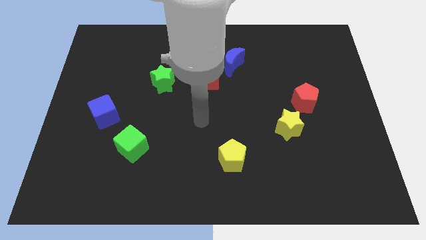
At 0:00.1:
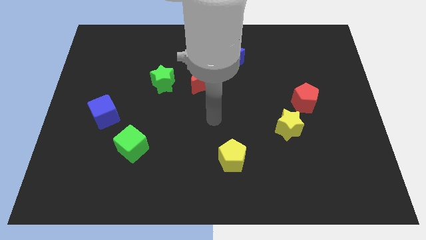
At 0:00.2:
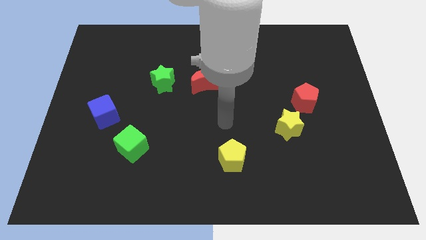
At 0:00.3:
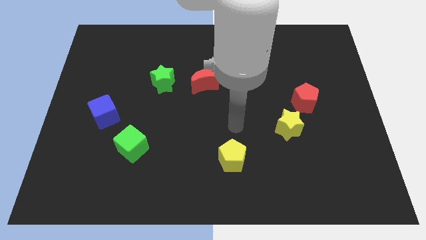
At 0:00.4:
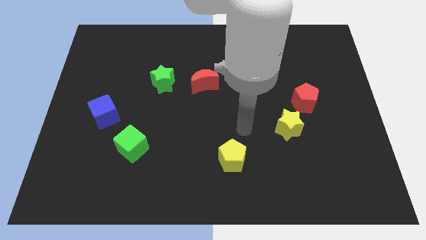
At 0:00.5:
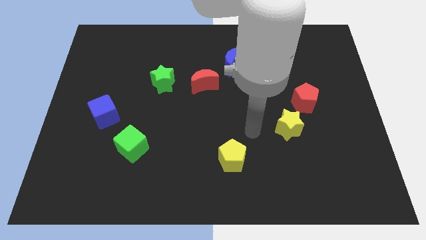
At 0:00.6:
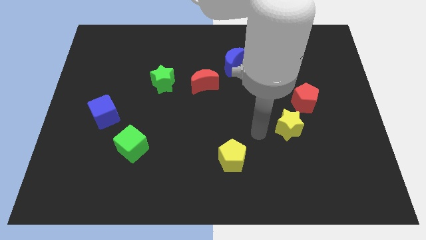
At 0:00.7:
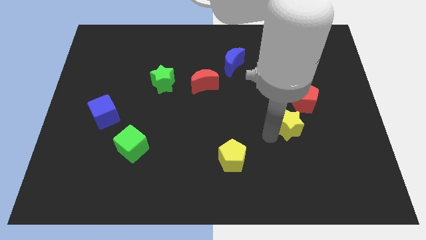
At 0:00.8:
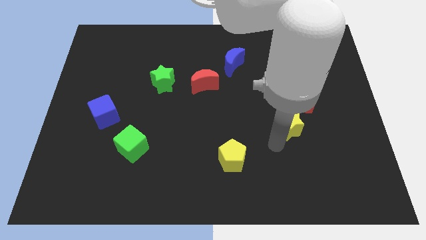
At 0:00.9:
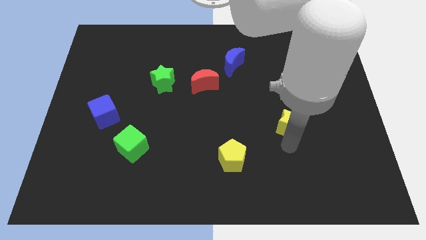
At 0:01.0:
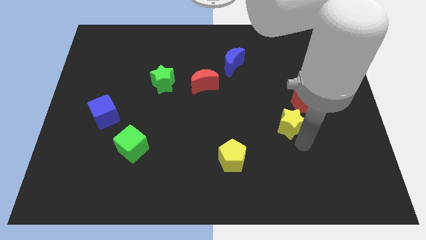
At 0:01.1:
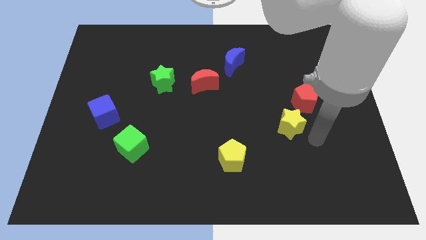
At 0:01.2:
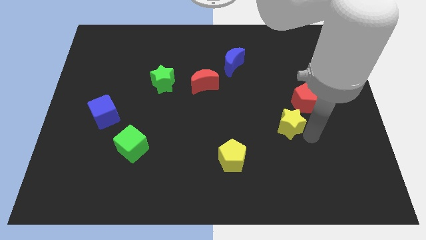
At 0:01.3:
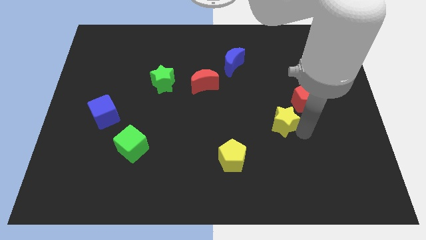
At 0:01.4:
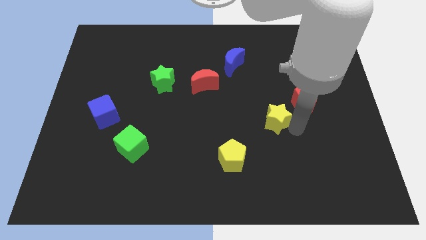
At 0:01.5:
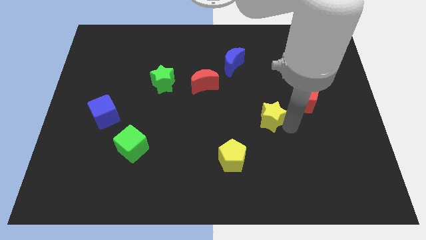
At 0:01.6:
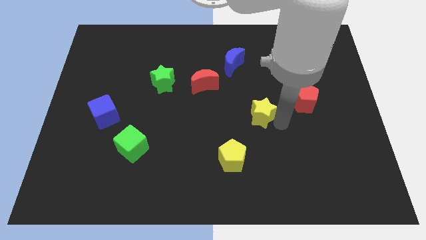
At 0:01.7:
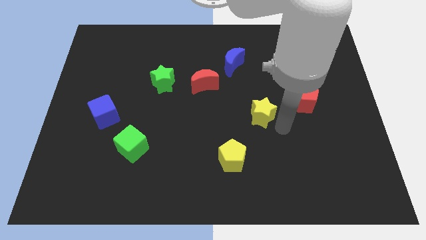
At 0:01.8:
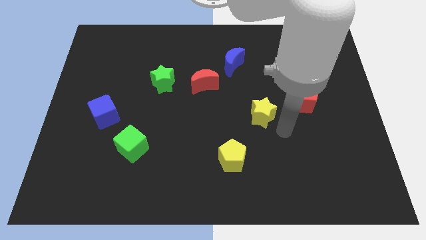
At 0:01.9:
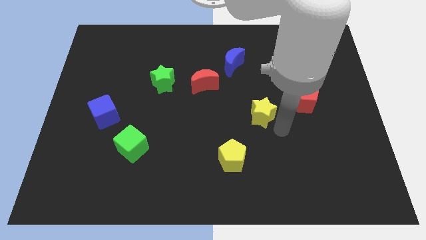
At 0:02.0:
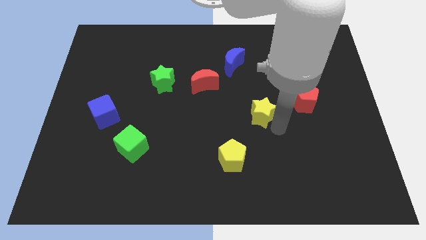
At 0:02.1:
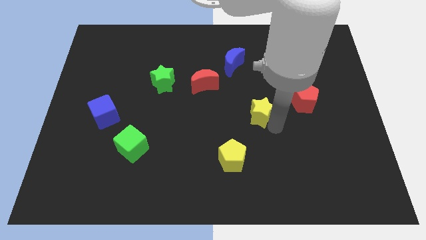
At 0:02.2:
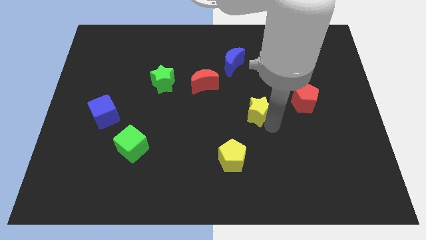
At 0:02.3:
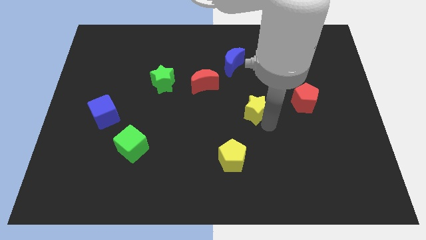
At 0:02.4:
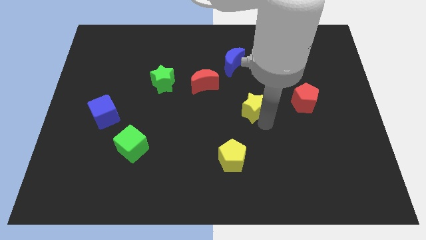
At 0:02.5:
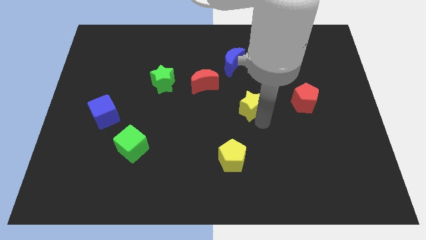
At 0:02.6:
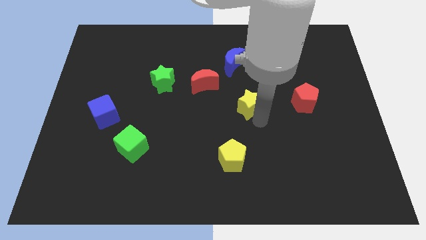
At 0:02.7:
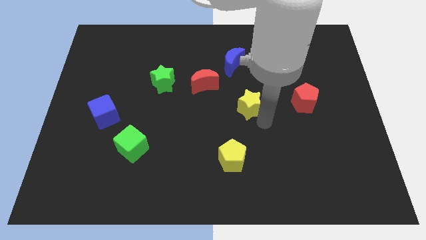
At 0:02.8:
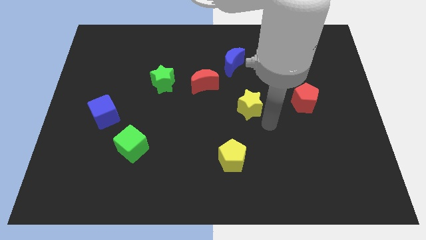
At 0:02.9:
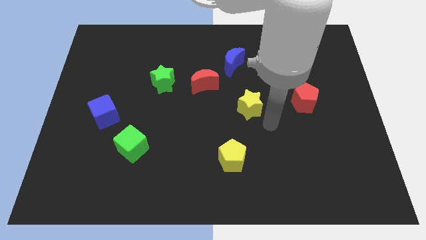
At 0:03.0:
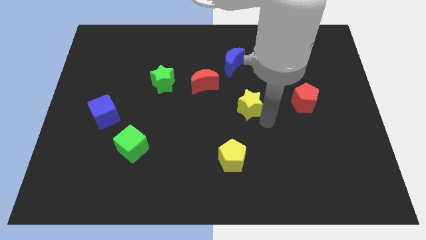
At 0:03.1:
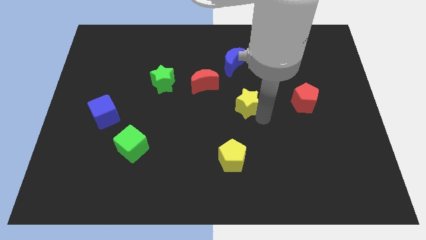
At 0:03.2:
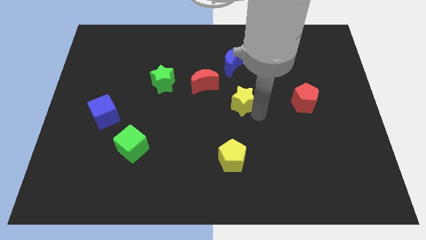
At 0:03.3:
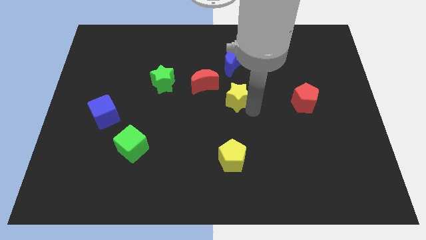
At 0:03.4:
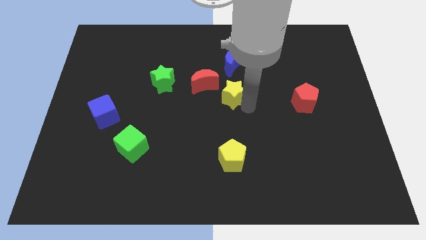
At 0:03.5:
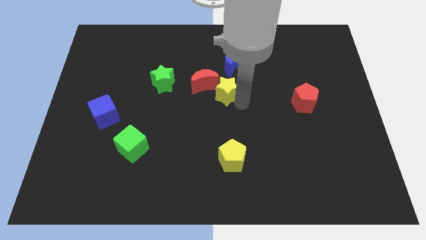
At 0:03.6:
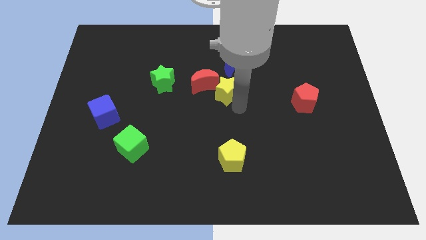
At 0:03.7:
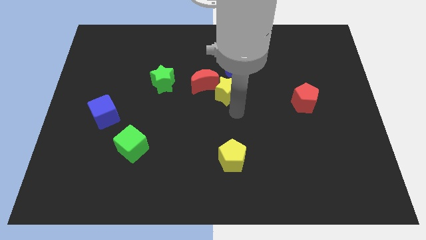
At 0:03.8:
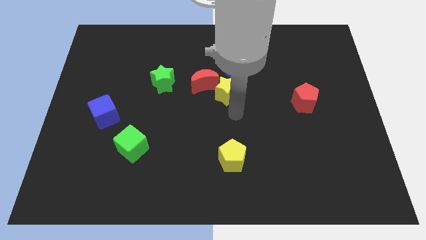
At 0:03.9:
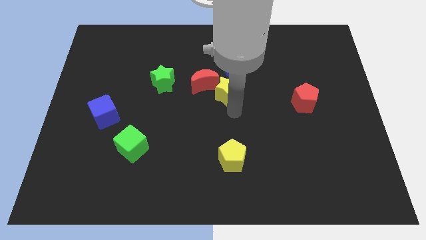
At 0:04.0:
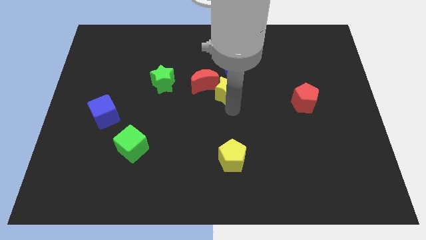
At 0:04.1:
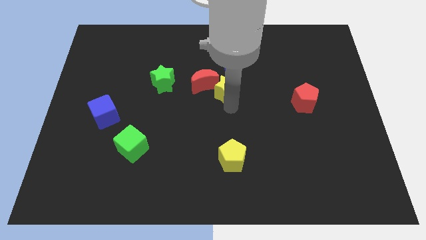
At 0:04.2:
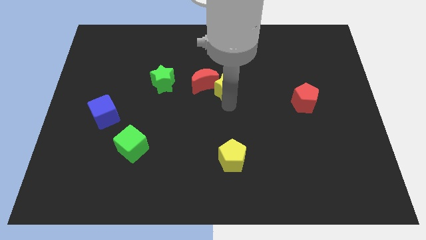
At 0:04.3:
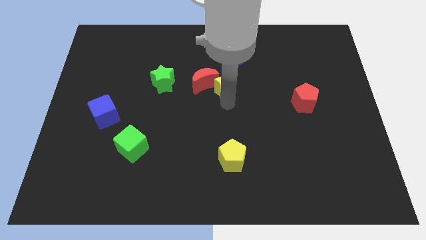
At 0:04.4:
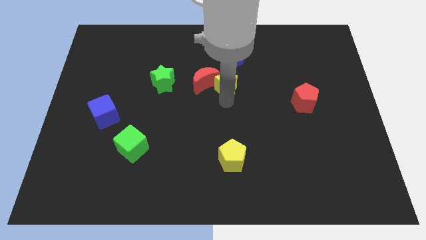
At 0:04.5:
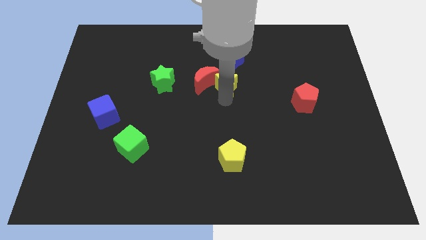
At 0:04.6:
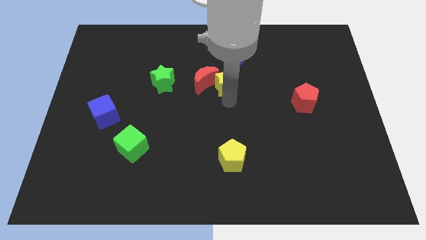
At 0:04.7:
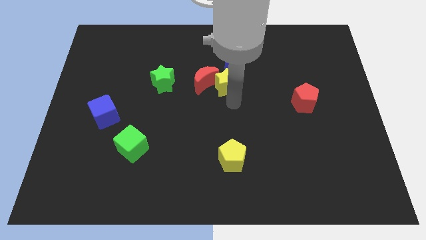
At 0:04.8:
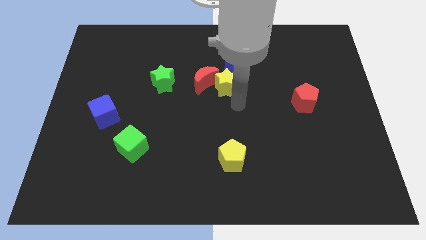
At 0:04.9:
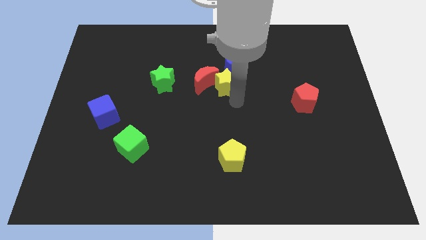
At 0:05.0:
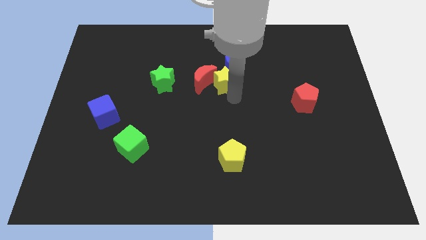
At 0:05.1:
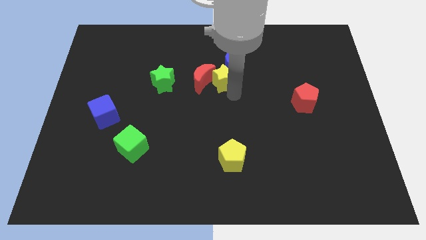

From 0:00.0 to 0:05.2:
push the yellow star up and to the left

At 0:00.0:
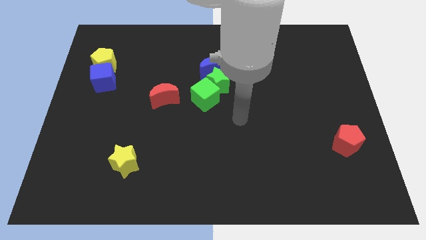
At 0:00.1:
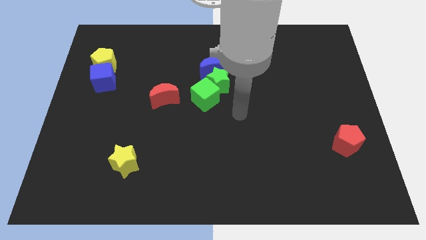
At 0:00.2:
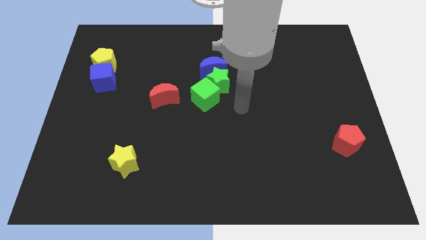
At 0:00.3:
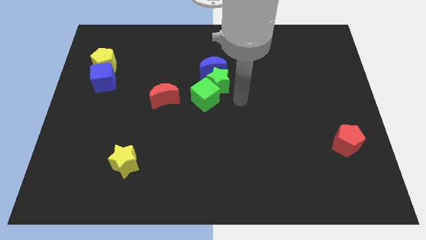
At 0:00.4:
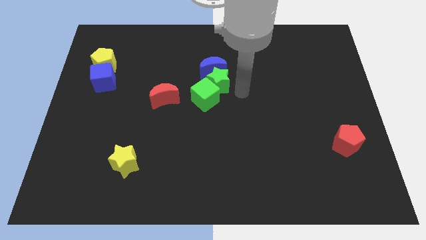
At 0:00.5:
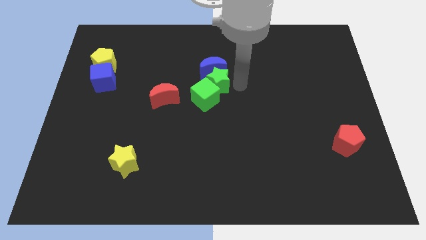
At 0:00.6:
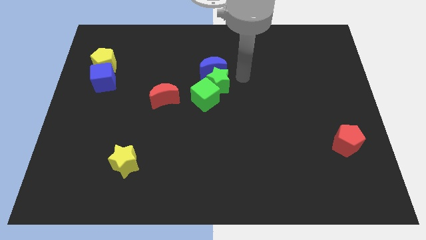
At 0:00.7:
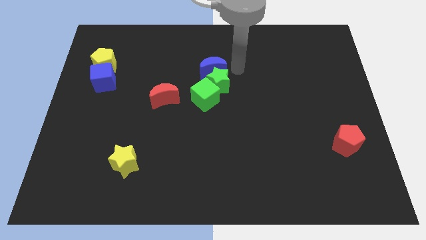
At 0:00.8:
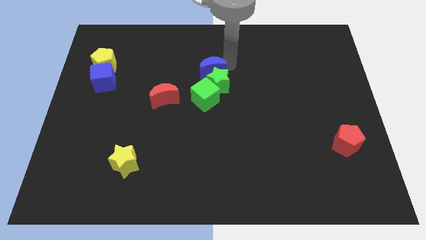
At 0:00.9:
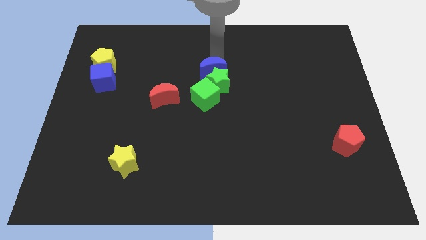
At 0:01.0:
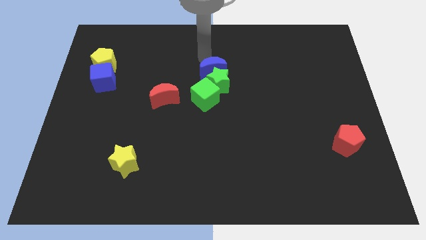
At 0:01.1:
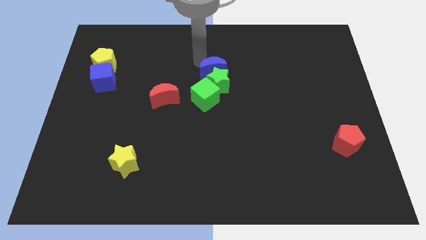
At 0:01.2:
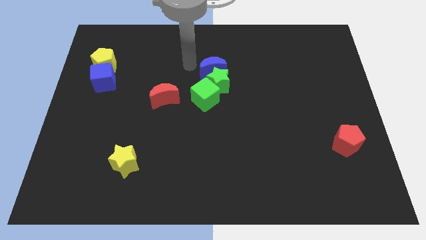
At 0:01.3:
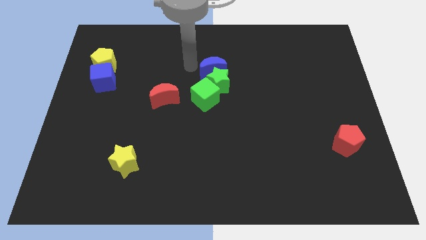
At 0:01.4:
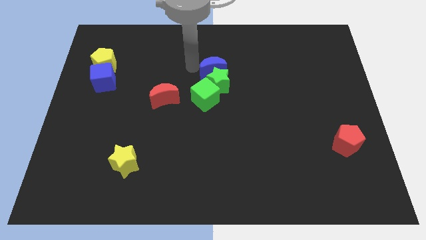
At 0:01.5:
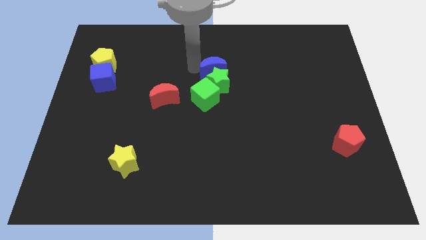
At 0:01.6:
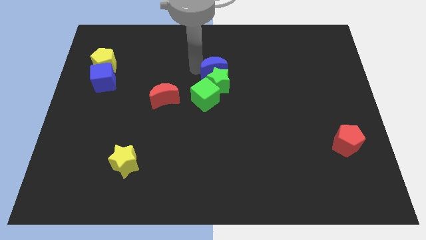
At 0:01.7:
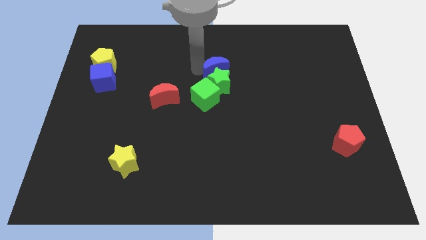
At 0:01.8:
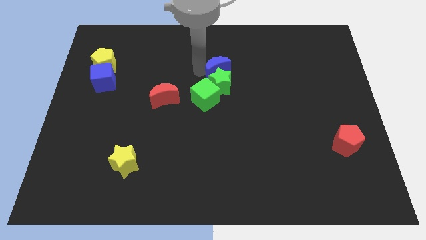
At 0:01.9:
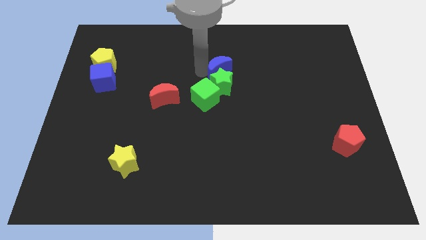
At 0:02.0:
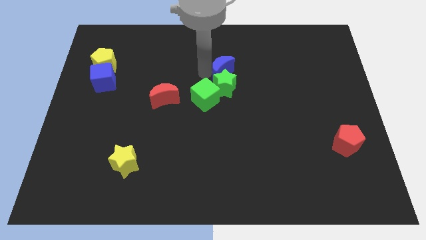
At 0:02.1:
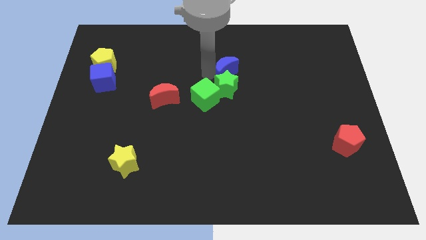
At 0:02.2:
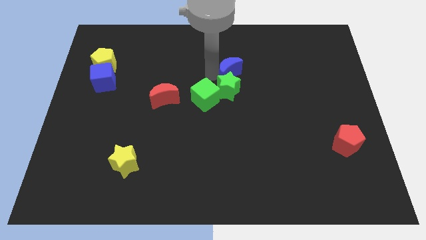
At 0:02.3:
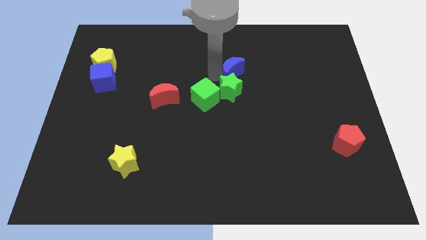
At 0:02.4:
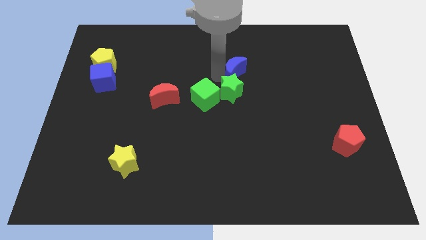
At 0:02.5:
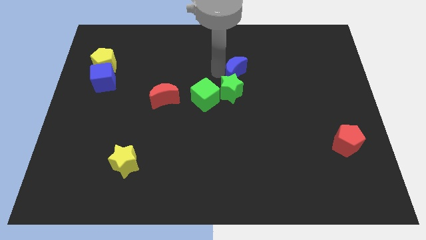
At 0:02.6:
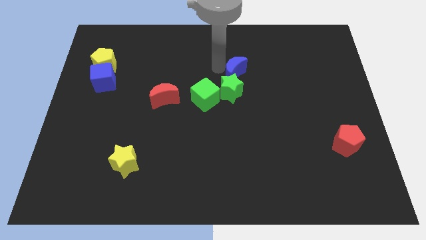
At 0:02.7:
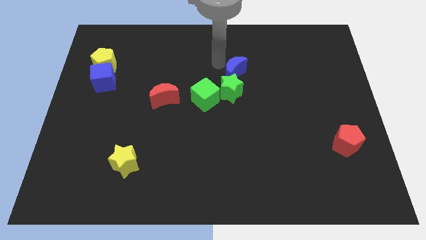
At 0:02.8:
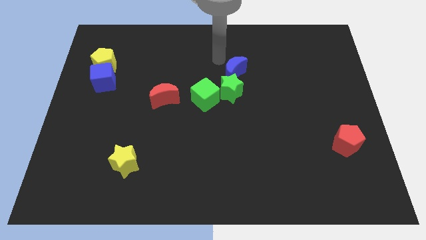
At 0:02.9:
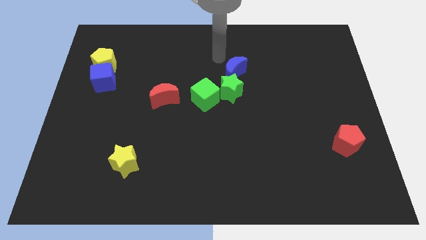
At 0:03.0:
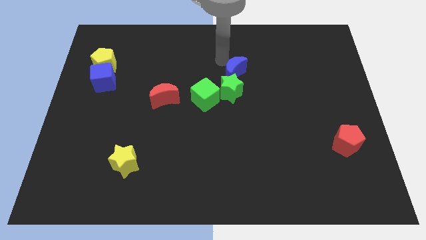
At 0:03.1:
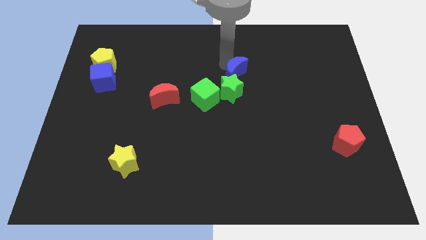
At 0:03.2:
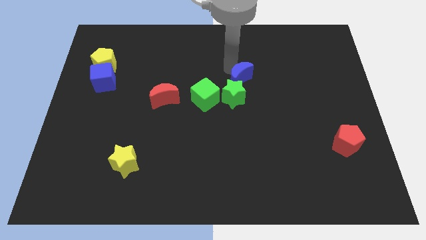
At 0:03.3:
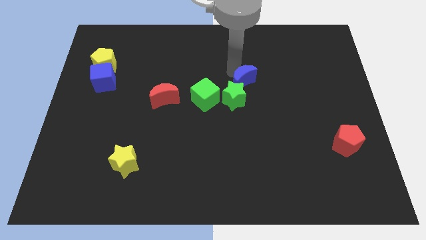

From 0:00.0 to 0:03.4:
slightly slide the blue moon downwards and right diagonally
